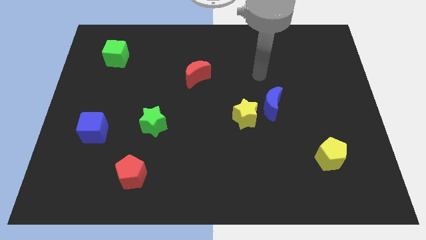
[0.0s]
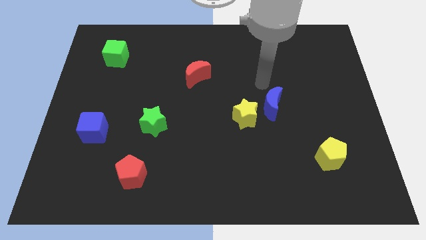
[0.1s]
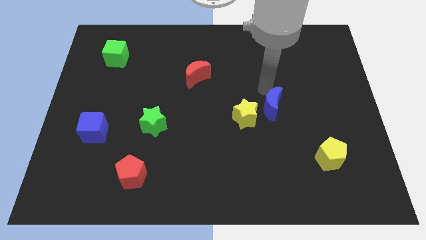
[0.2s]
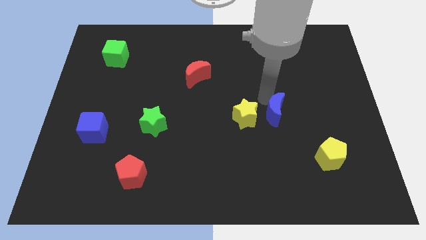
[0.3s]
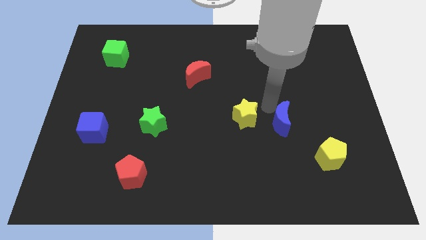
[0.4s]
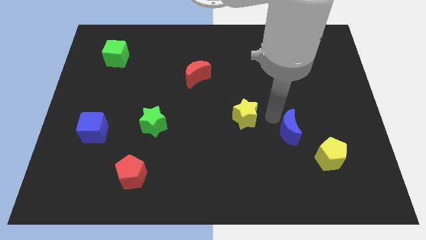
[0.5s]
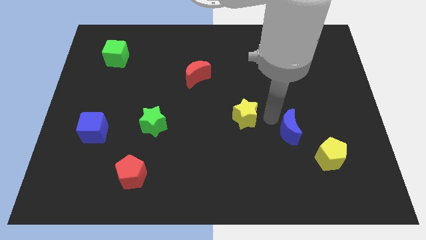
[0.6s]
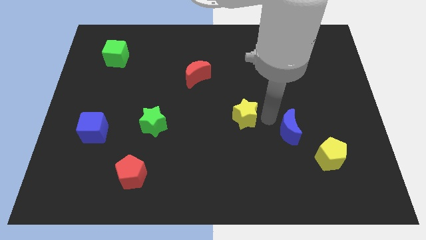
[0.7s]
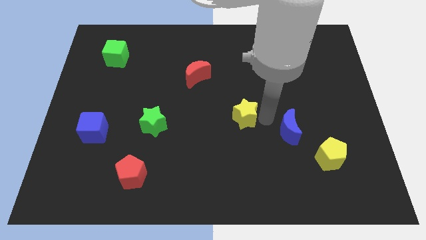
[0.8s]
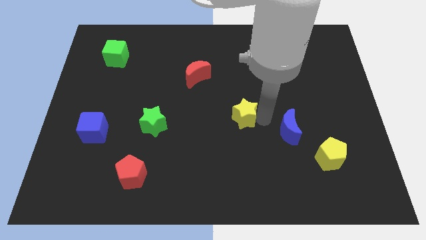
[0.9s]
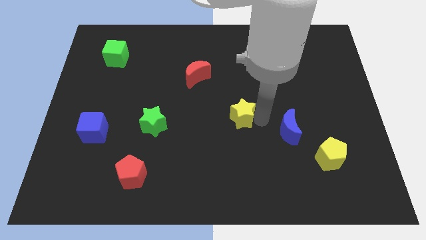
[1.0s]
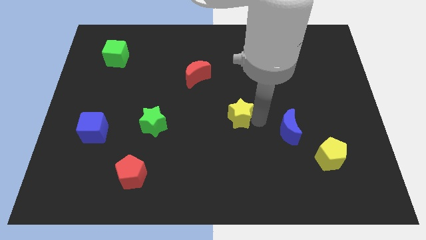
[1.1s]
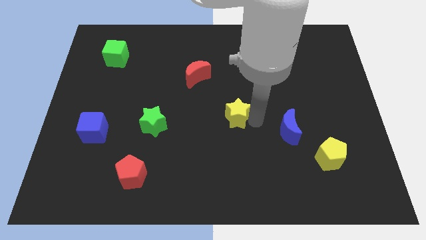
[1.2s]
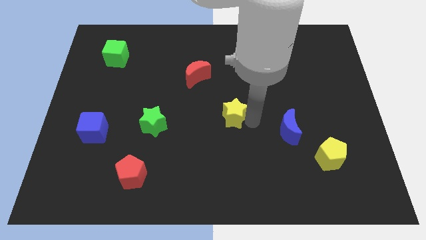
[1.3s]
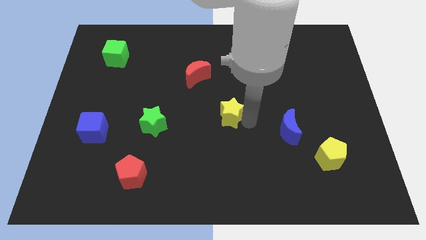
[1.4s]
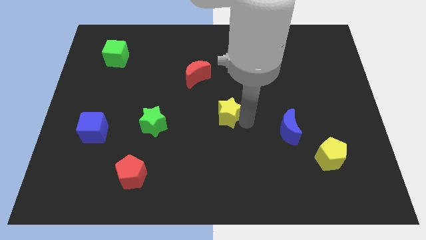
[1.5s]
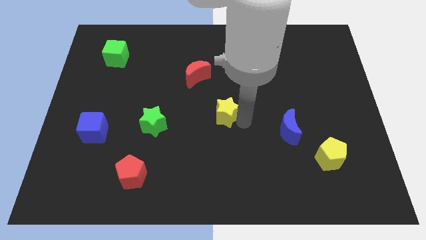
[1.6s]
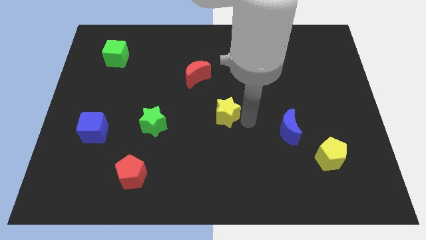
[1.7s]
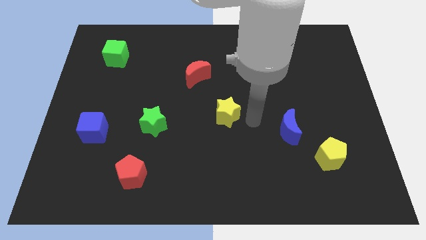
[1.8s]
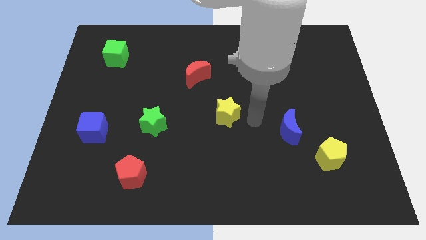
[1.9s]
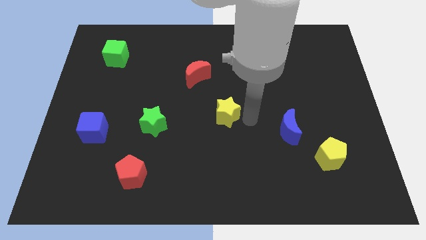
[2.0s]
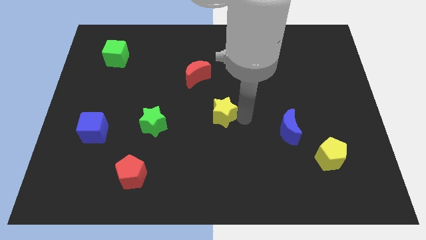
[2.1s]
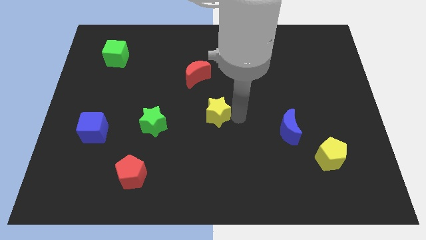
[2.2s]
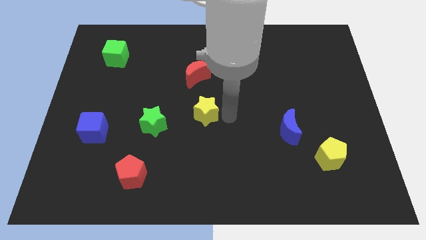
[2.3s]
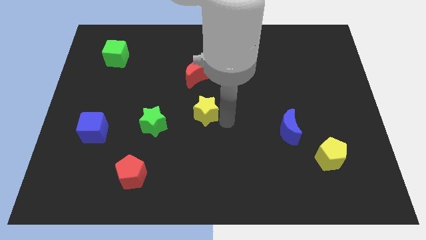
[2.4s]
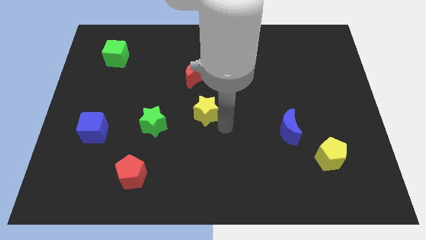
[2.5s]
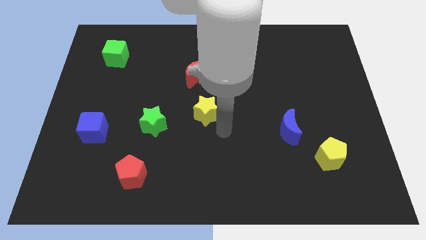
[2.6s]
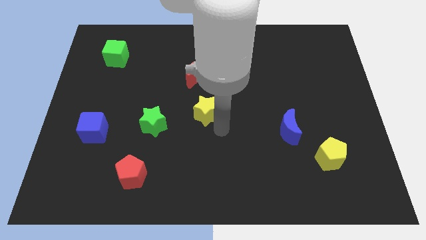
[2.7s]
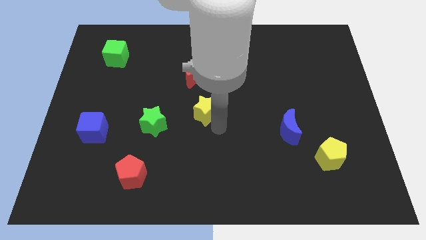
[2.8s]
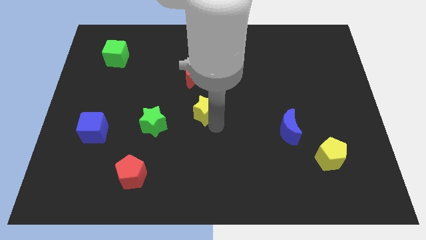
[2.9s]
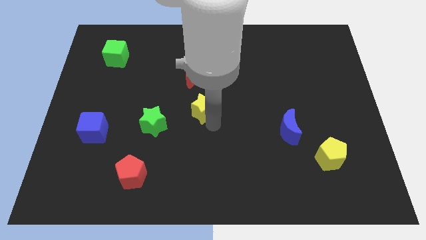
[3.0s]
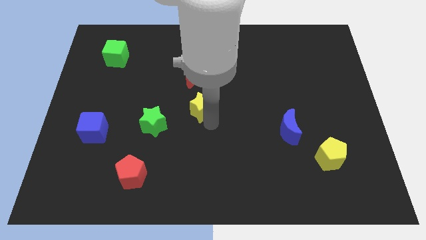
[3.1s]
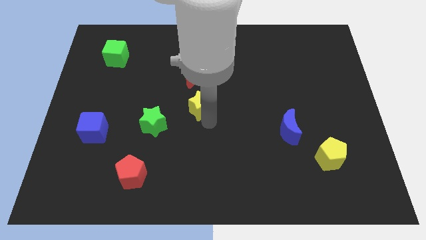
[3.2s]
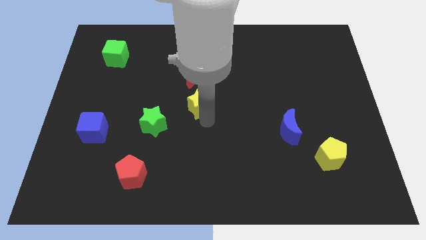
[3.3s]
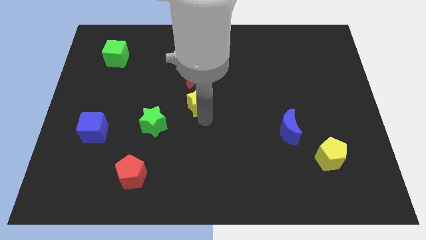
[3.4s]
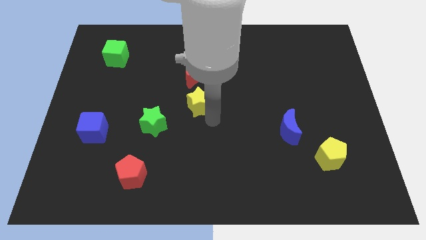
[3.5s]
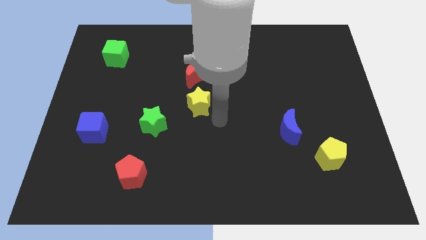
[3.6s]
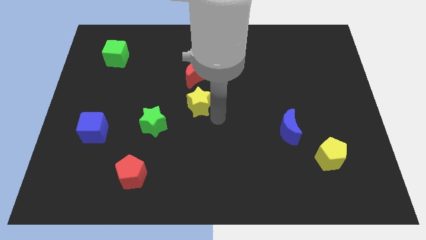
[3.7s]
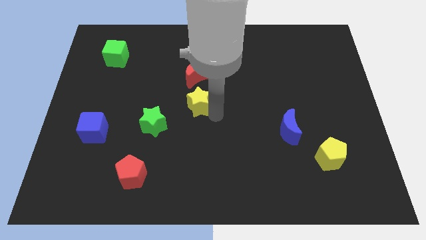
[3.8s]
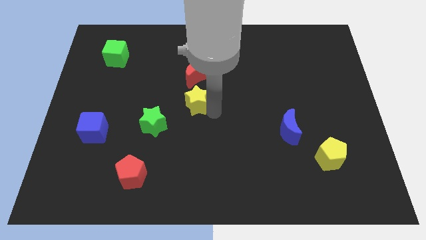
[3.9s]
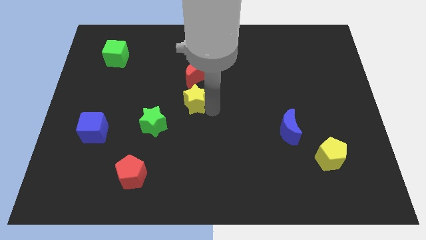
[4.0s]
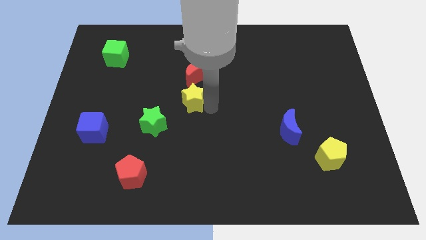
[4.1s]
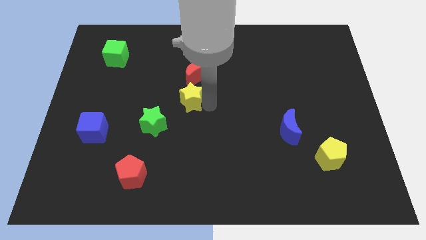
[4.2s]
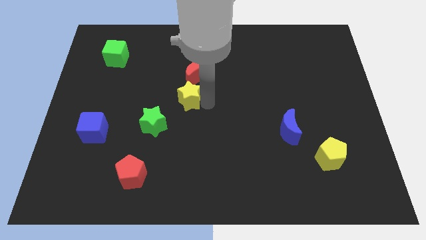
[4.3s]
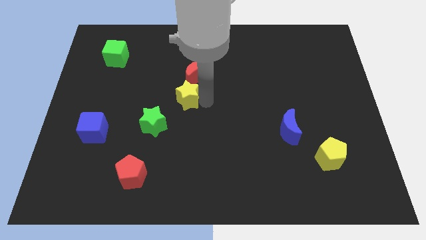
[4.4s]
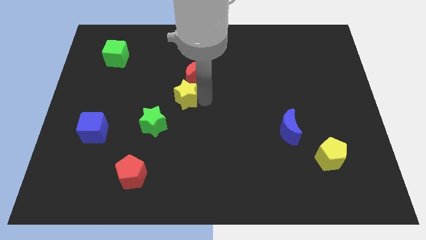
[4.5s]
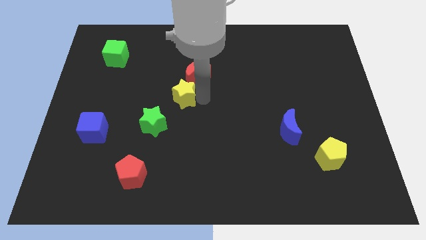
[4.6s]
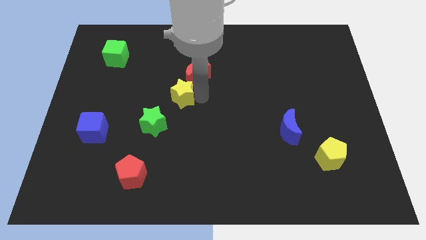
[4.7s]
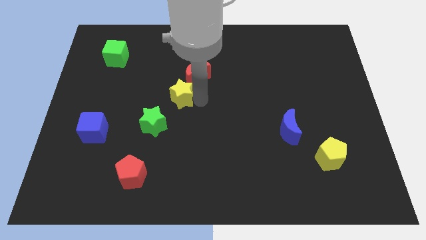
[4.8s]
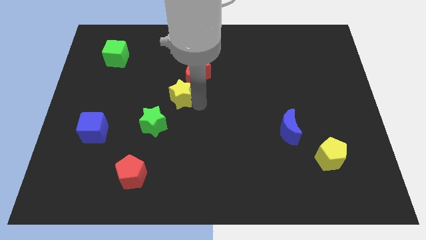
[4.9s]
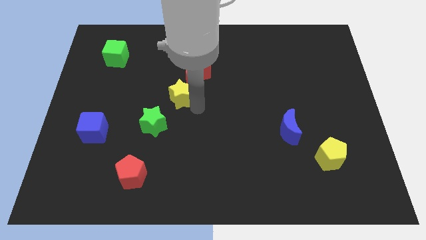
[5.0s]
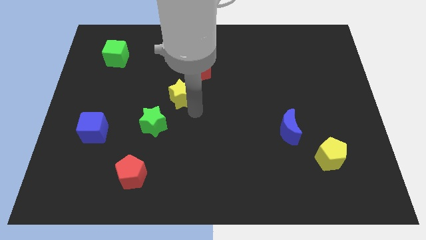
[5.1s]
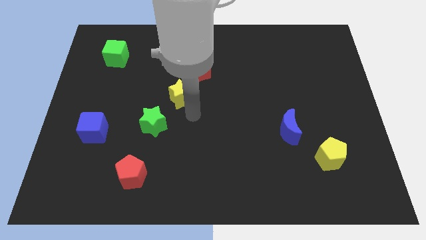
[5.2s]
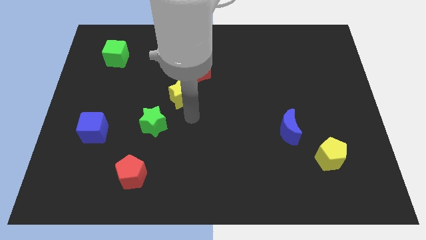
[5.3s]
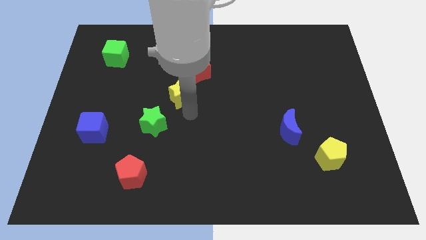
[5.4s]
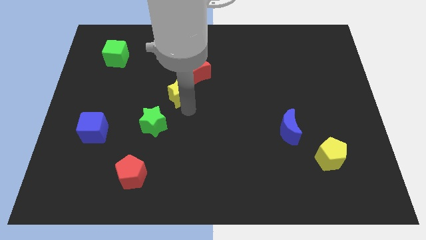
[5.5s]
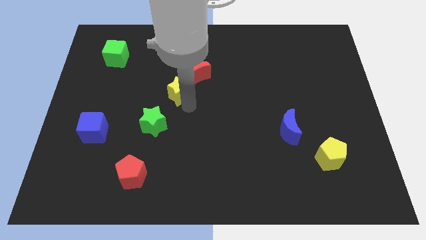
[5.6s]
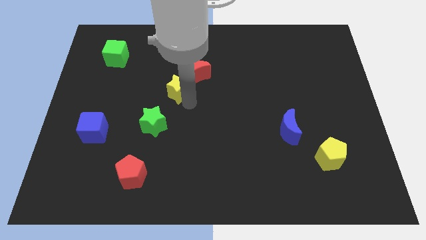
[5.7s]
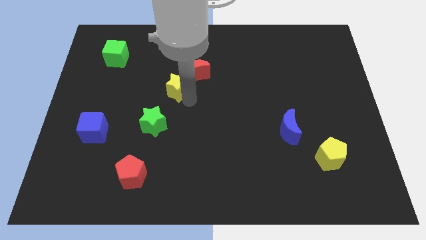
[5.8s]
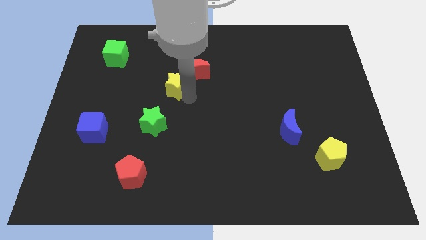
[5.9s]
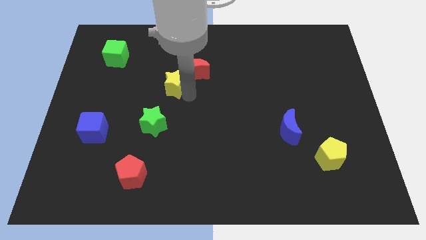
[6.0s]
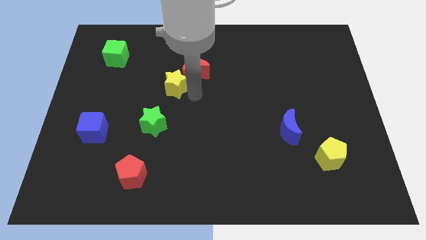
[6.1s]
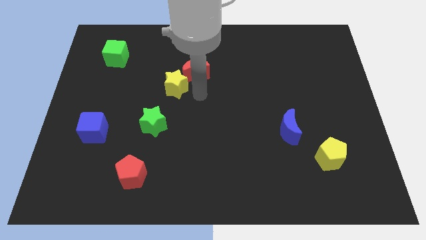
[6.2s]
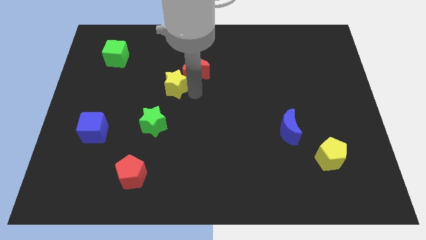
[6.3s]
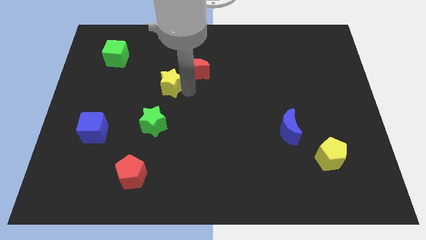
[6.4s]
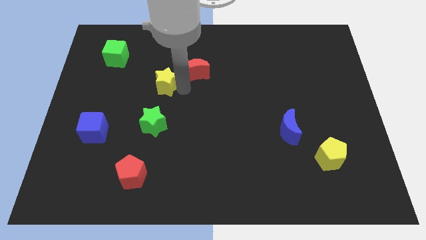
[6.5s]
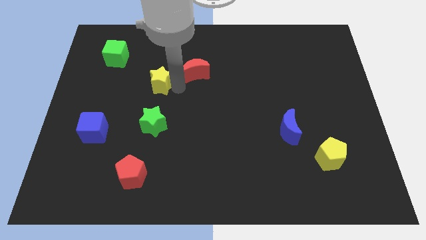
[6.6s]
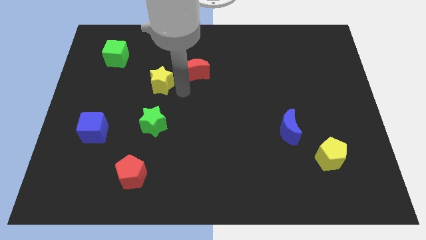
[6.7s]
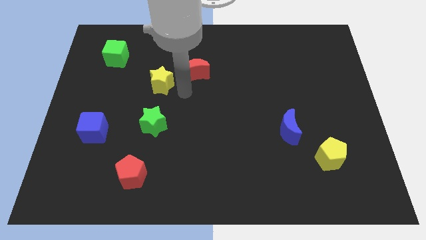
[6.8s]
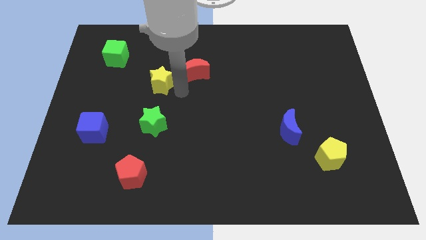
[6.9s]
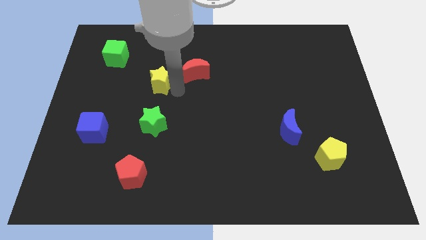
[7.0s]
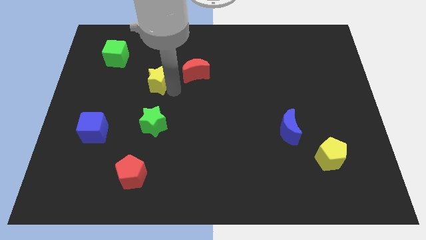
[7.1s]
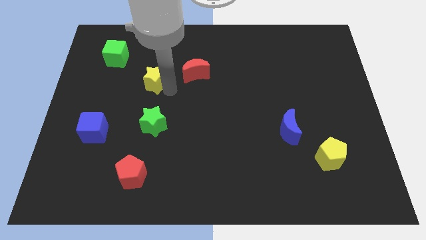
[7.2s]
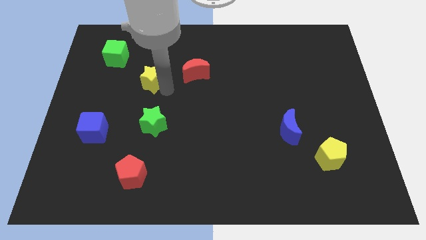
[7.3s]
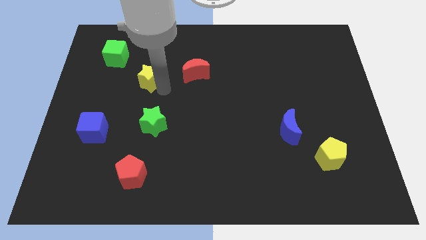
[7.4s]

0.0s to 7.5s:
push the yellow star to the bottom right of the green cube
